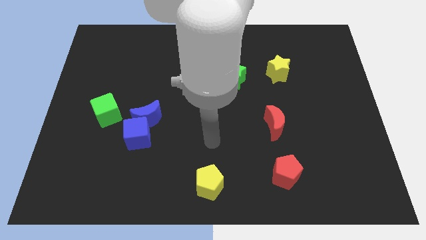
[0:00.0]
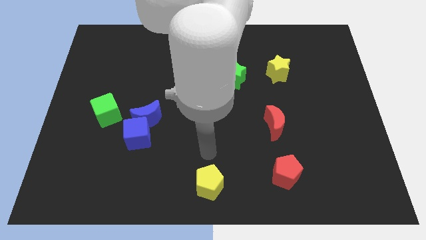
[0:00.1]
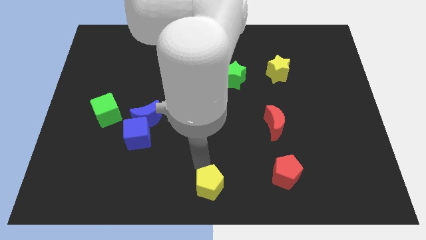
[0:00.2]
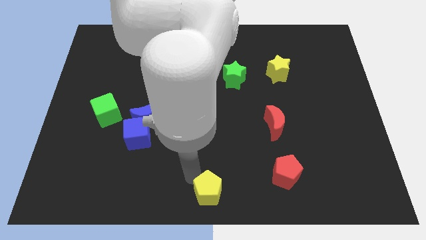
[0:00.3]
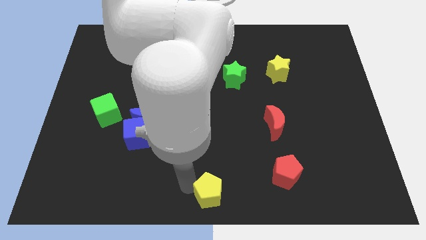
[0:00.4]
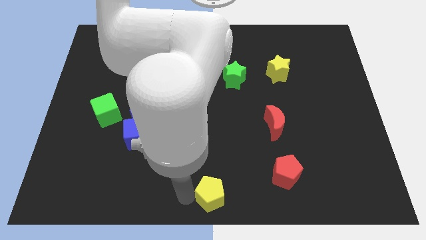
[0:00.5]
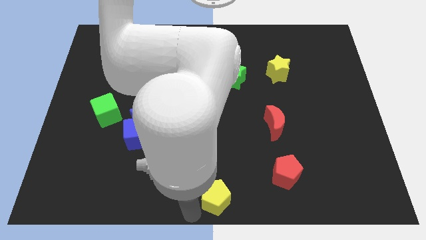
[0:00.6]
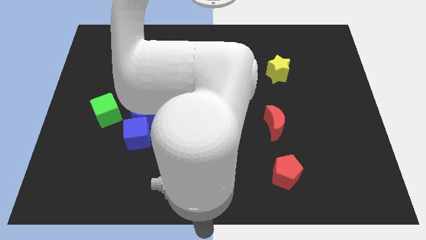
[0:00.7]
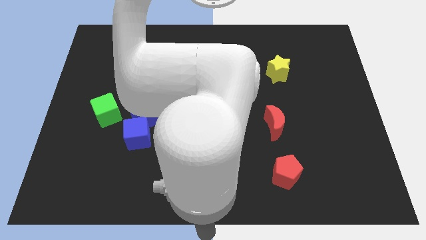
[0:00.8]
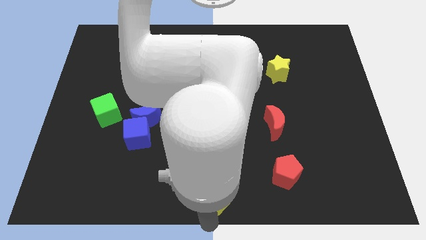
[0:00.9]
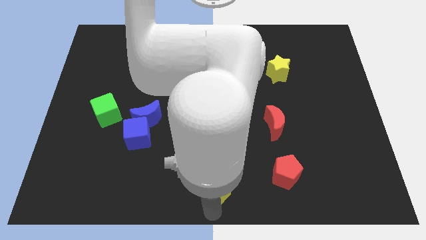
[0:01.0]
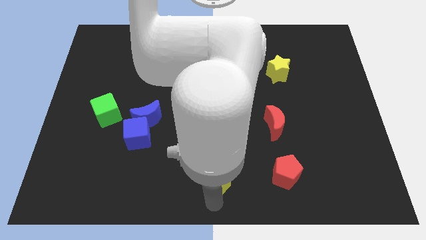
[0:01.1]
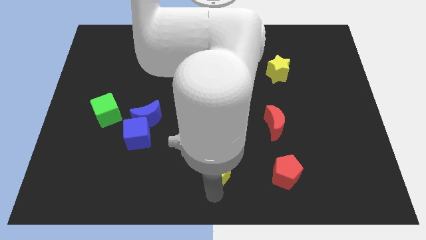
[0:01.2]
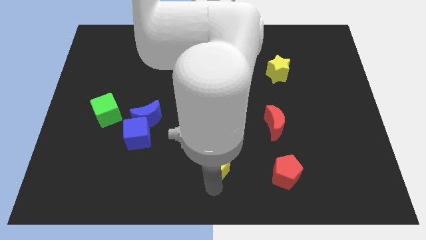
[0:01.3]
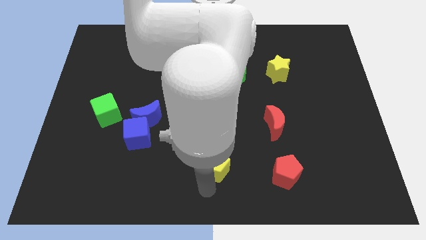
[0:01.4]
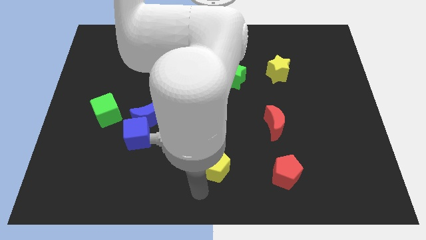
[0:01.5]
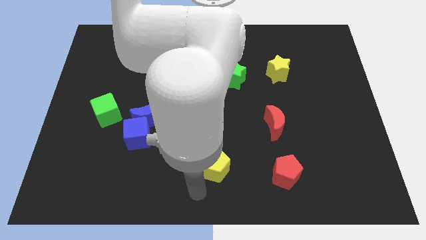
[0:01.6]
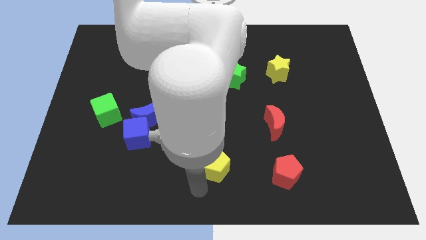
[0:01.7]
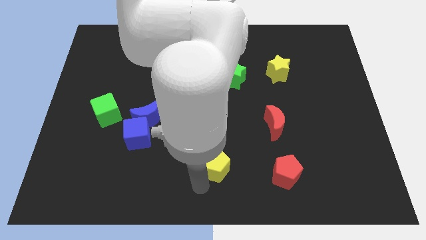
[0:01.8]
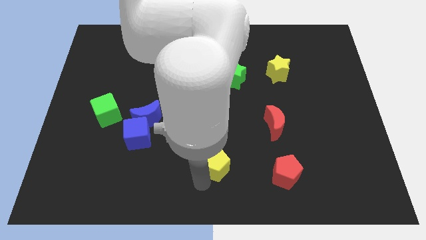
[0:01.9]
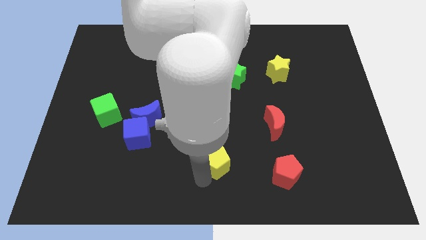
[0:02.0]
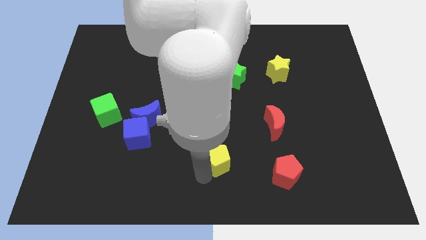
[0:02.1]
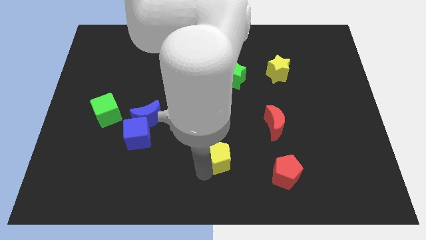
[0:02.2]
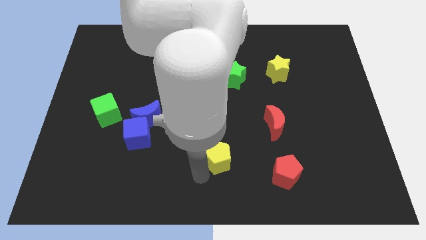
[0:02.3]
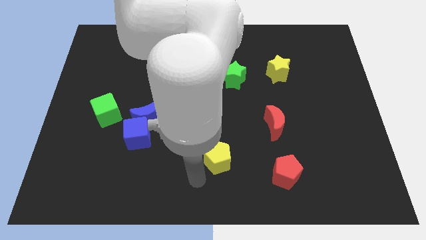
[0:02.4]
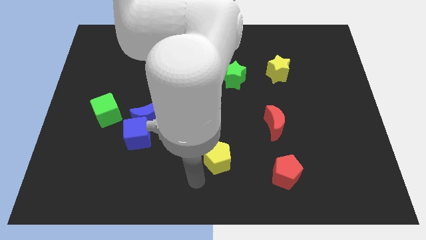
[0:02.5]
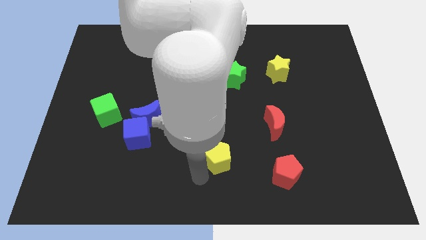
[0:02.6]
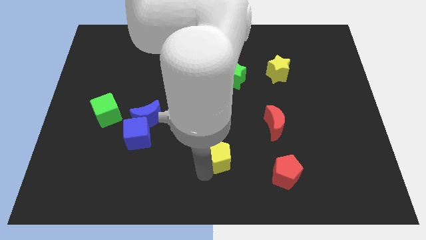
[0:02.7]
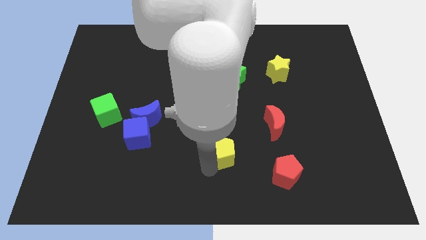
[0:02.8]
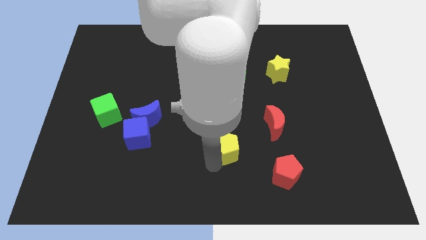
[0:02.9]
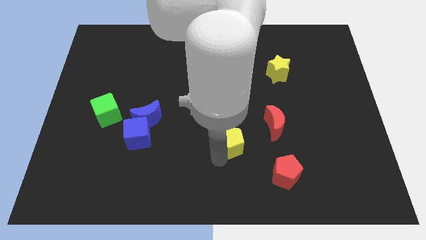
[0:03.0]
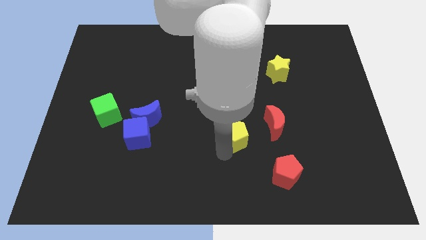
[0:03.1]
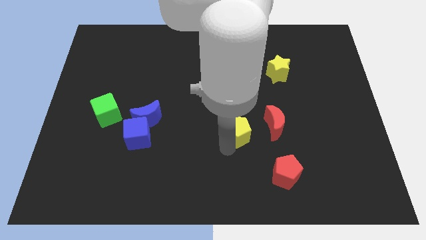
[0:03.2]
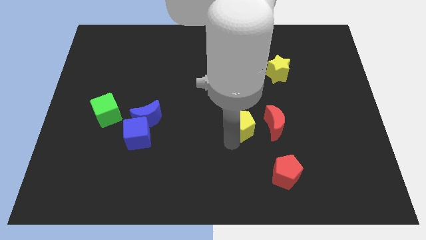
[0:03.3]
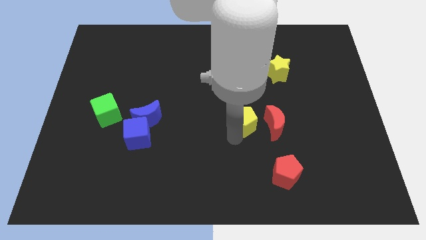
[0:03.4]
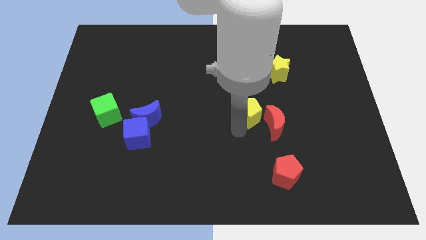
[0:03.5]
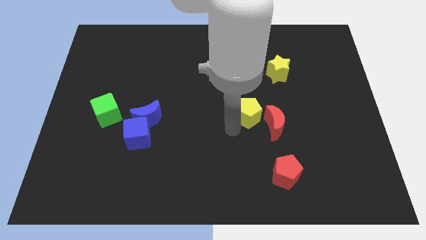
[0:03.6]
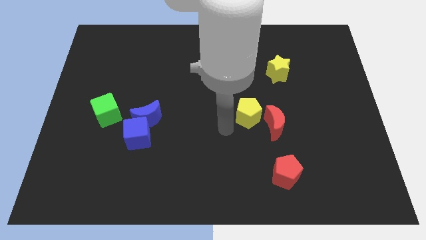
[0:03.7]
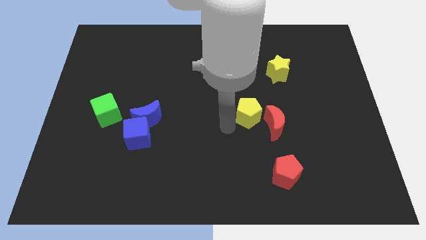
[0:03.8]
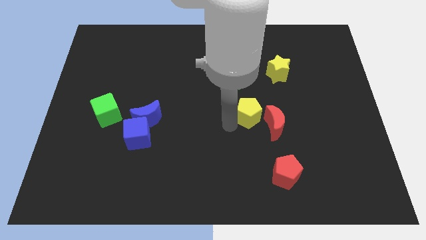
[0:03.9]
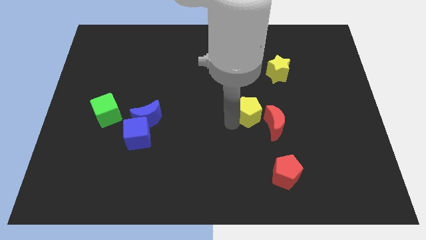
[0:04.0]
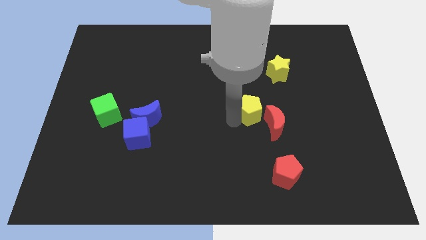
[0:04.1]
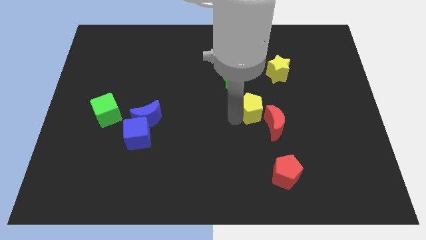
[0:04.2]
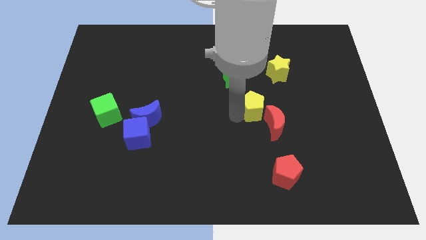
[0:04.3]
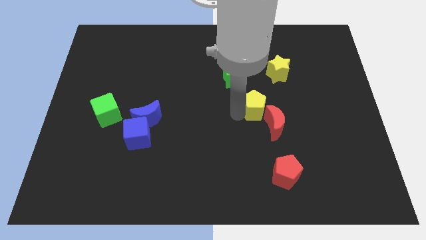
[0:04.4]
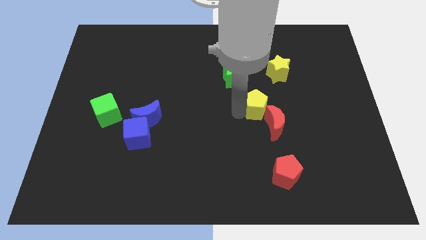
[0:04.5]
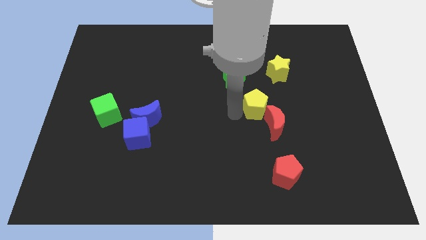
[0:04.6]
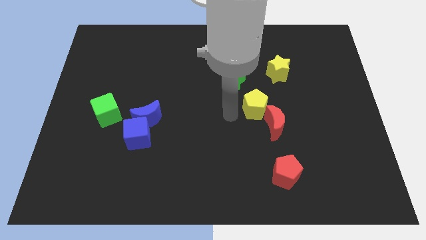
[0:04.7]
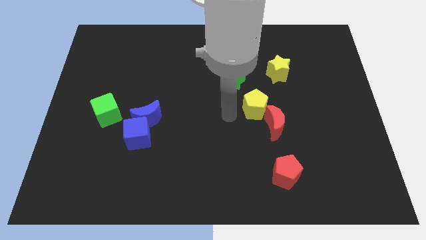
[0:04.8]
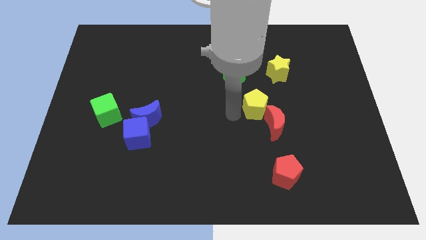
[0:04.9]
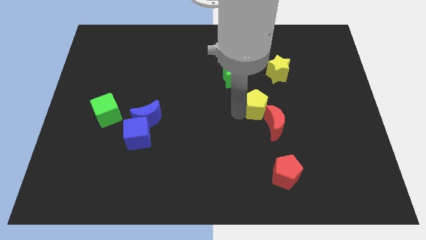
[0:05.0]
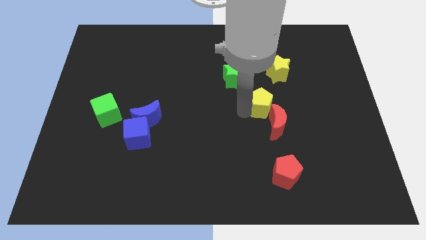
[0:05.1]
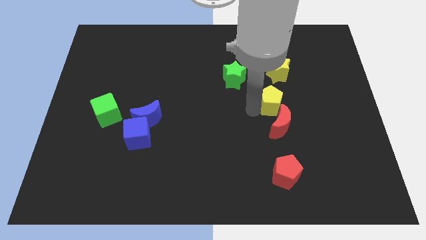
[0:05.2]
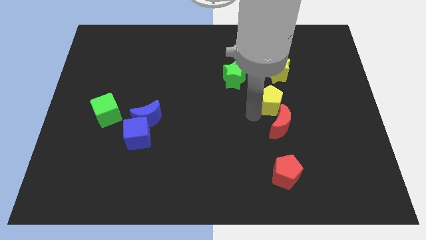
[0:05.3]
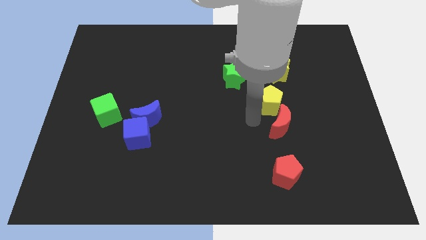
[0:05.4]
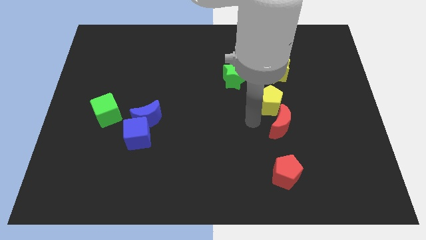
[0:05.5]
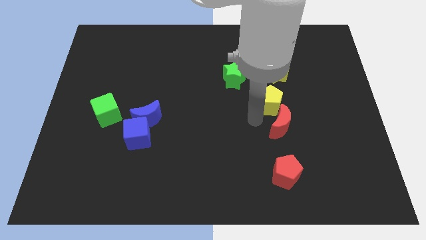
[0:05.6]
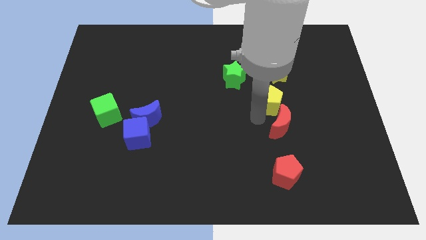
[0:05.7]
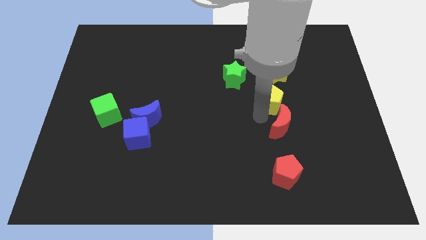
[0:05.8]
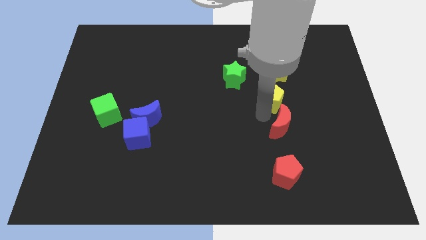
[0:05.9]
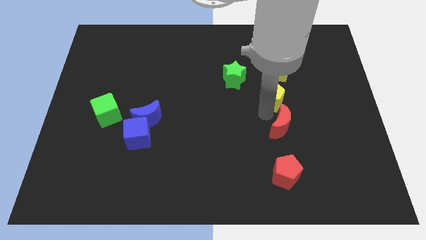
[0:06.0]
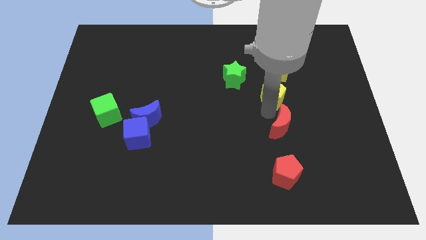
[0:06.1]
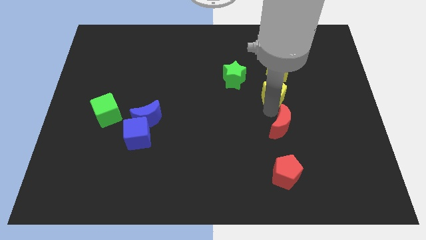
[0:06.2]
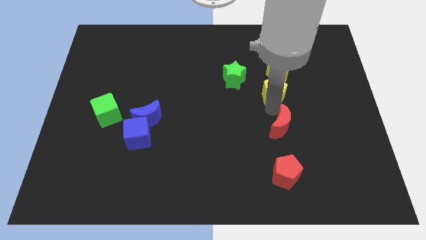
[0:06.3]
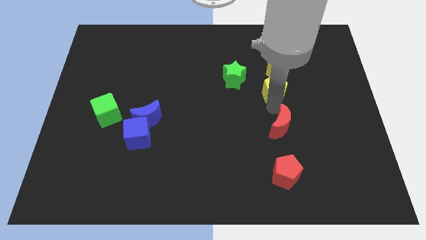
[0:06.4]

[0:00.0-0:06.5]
push the yellow pentagon to the right side of the green star

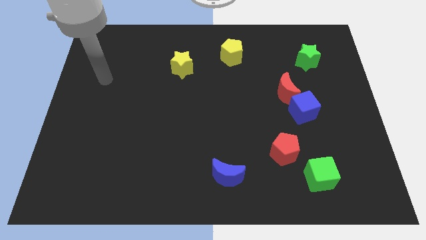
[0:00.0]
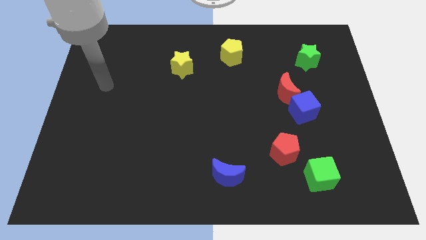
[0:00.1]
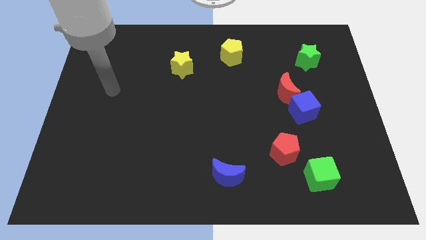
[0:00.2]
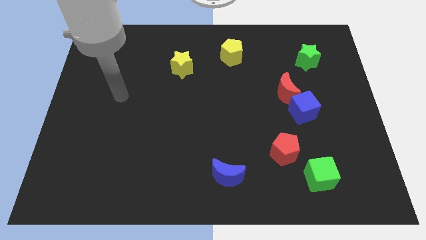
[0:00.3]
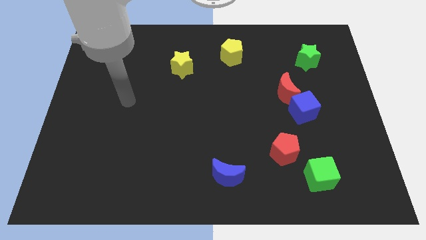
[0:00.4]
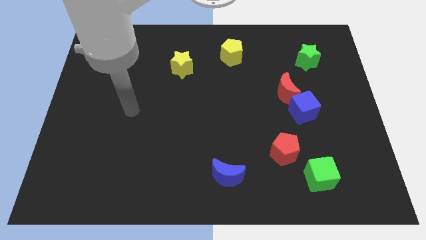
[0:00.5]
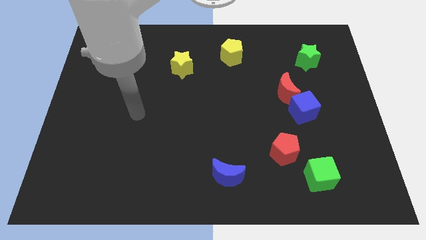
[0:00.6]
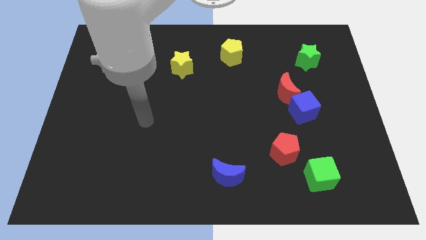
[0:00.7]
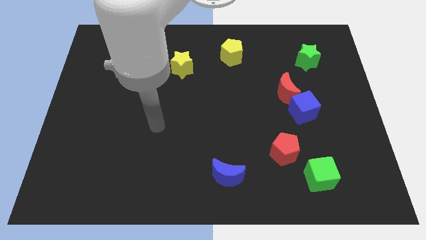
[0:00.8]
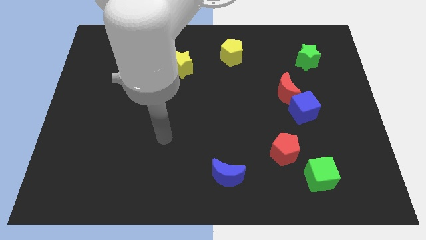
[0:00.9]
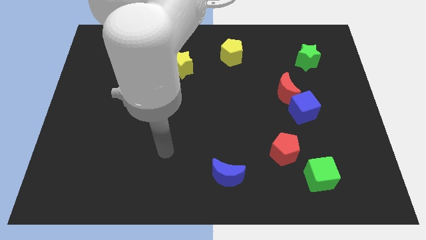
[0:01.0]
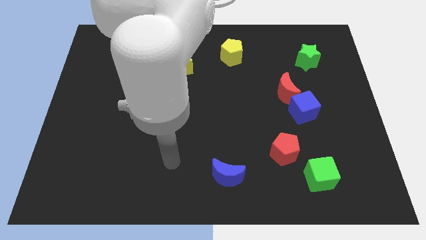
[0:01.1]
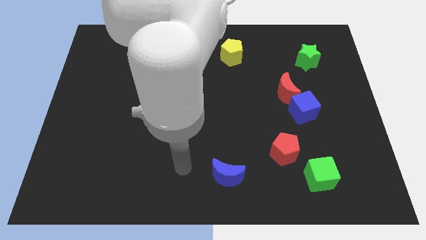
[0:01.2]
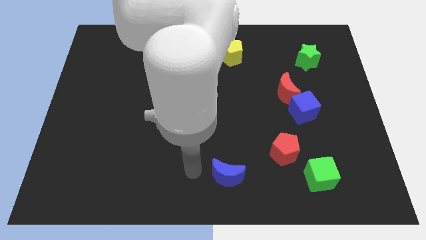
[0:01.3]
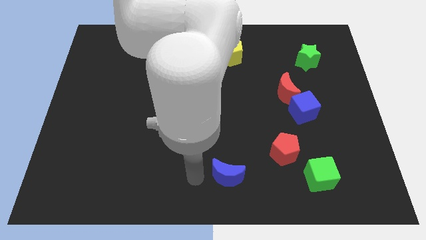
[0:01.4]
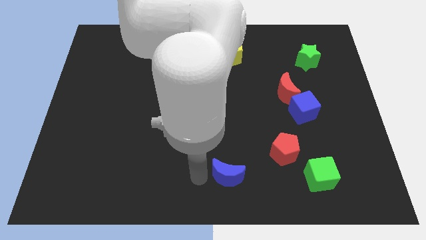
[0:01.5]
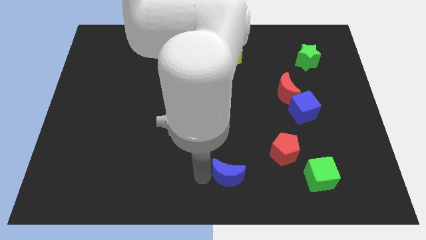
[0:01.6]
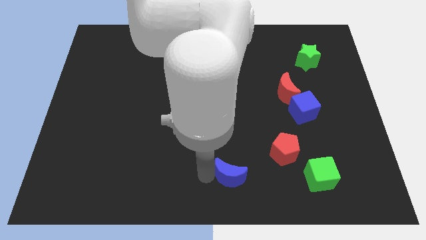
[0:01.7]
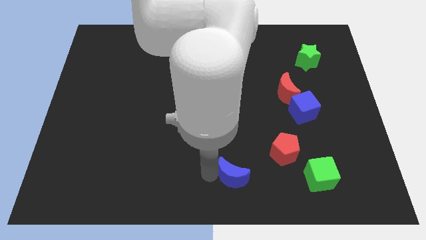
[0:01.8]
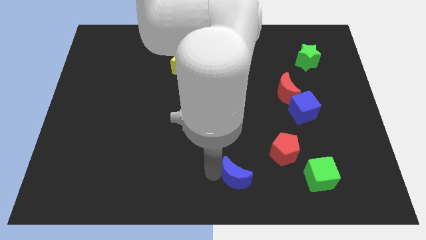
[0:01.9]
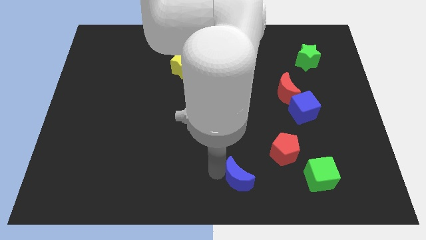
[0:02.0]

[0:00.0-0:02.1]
slide the blue moon to the bottom left side of the red pentagon
